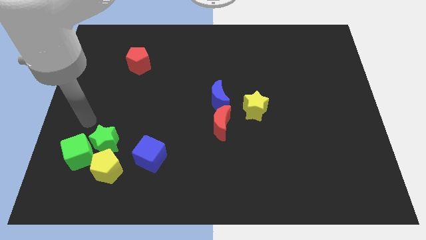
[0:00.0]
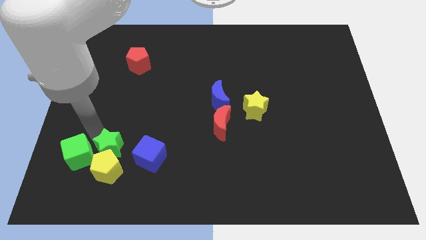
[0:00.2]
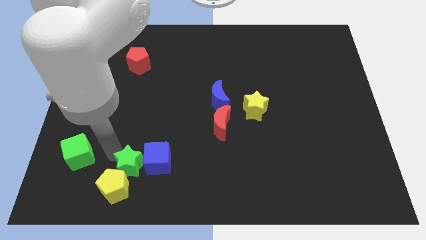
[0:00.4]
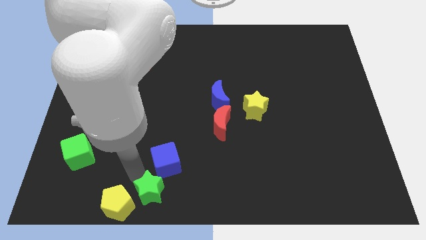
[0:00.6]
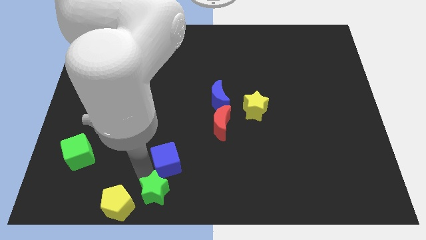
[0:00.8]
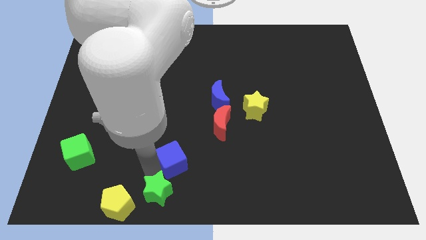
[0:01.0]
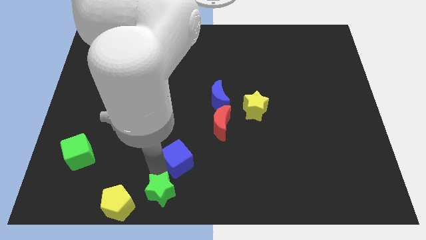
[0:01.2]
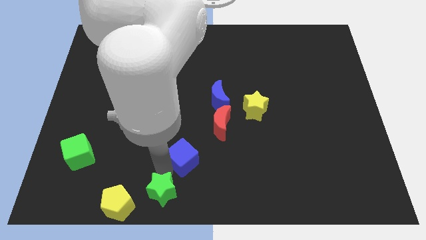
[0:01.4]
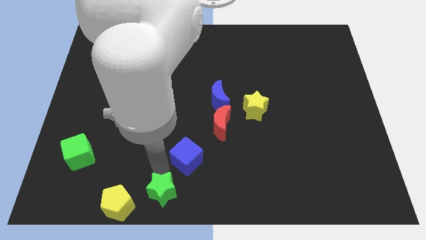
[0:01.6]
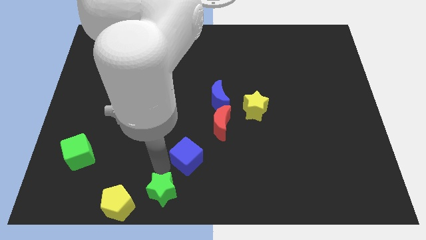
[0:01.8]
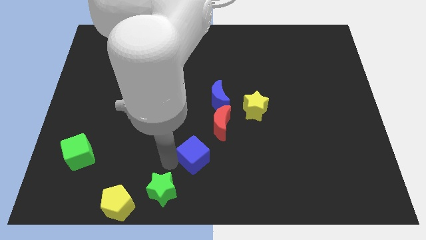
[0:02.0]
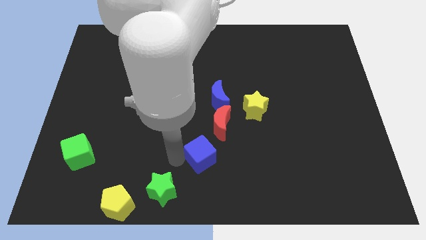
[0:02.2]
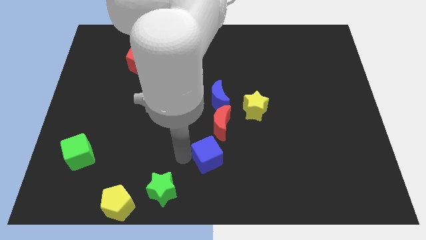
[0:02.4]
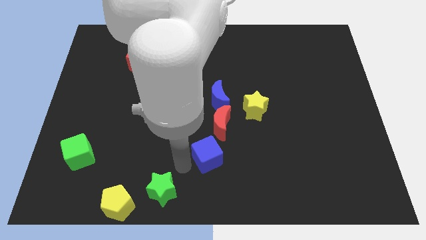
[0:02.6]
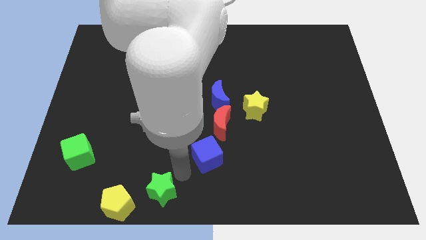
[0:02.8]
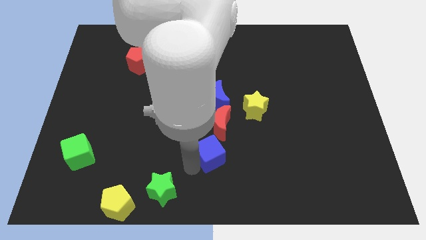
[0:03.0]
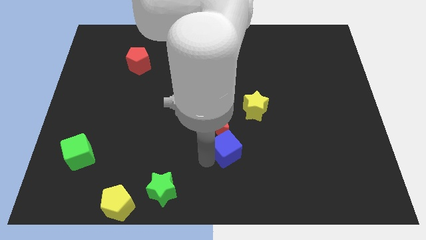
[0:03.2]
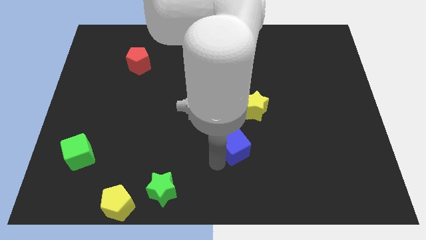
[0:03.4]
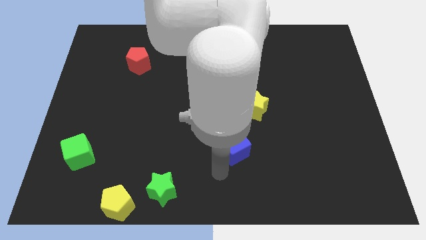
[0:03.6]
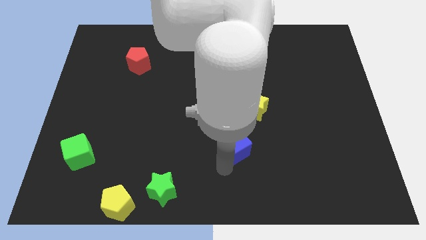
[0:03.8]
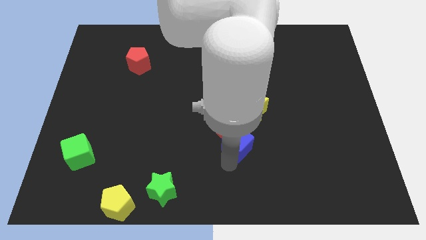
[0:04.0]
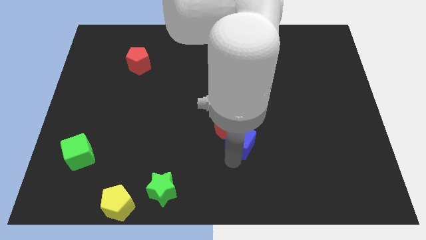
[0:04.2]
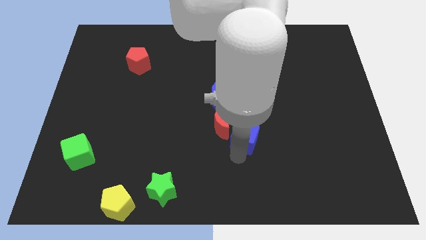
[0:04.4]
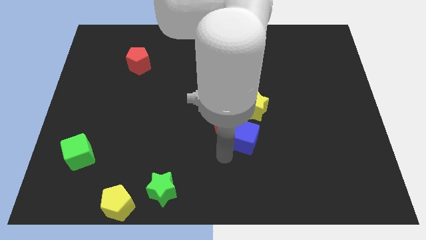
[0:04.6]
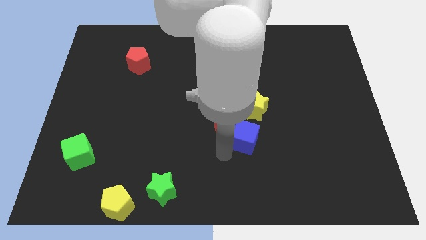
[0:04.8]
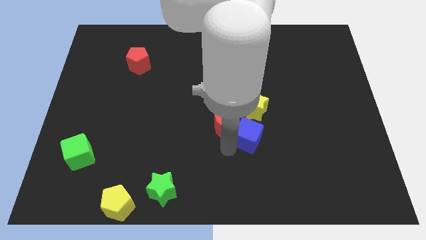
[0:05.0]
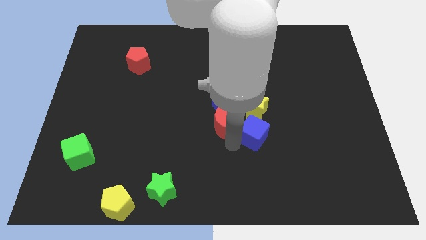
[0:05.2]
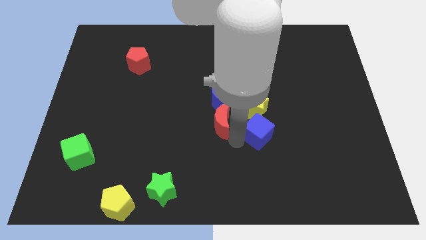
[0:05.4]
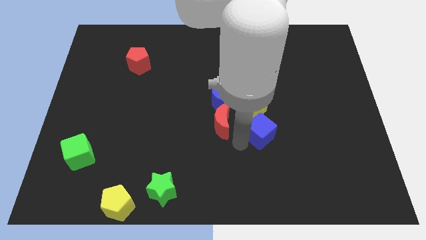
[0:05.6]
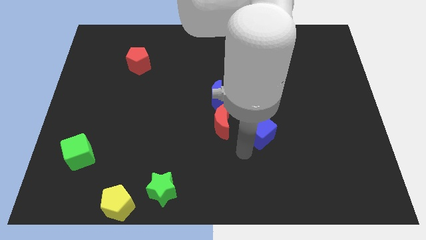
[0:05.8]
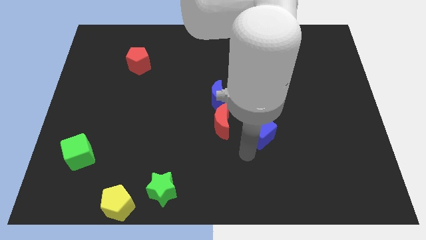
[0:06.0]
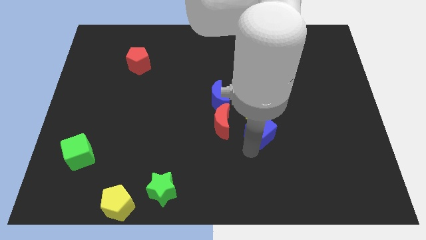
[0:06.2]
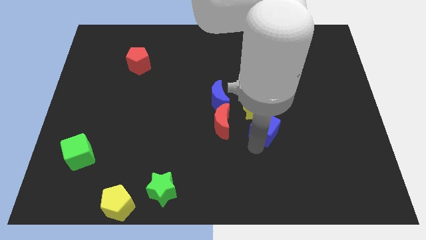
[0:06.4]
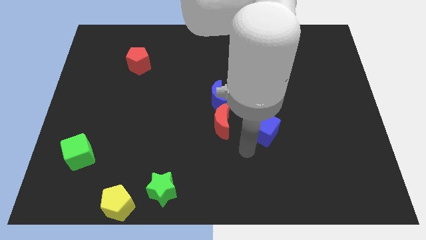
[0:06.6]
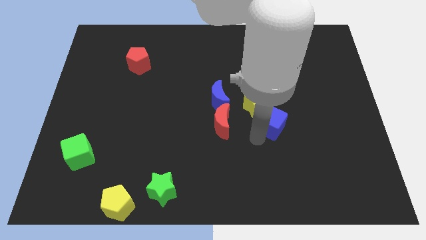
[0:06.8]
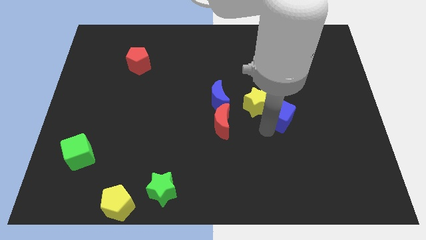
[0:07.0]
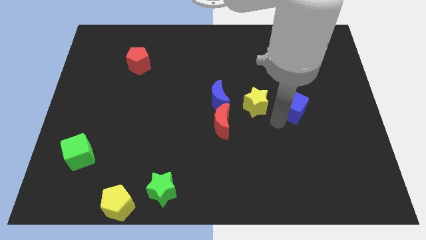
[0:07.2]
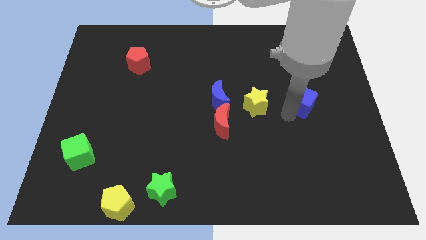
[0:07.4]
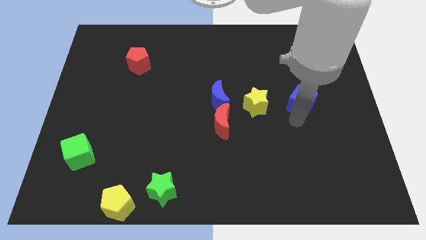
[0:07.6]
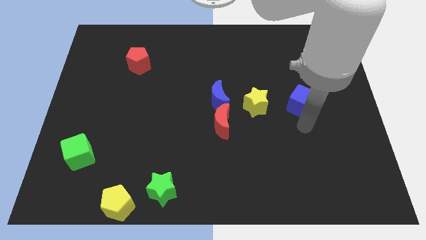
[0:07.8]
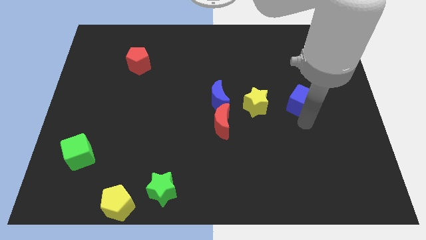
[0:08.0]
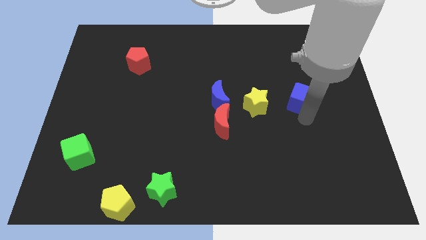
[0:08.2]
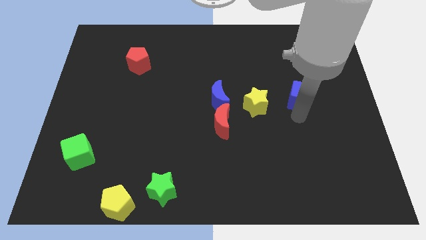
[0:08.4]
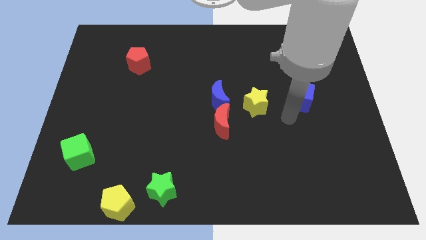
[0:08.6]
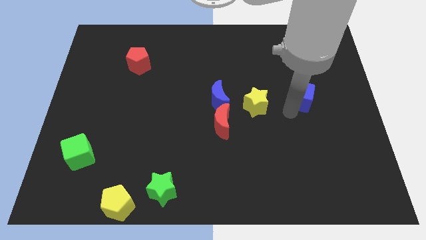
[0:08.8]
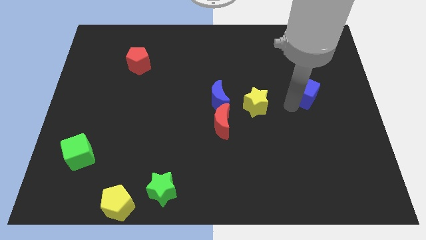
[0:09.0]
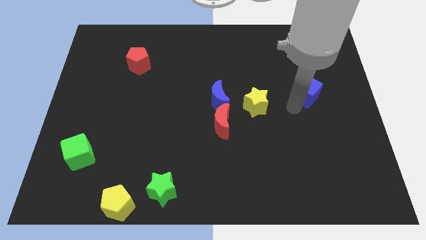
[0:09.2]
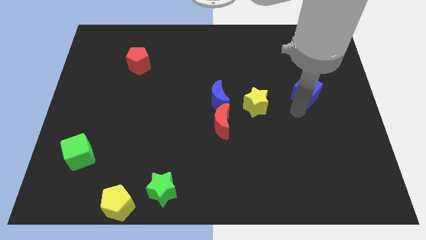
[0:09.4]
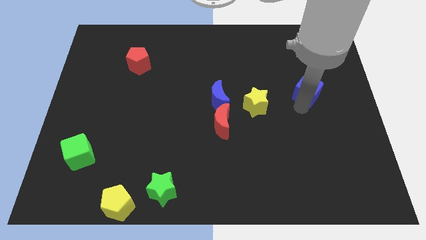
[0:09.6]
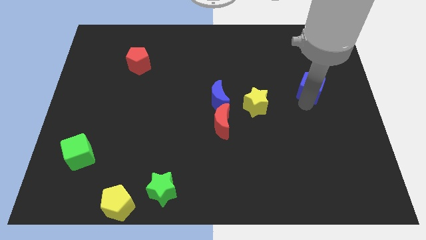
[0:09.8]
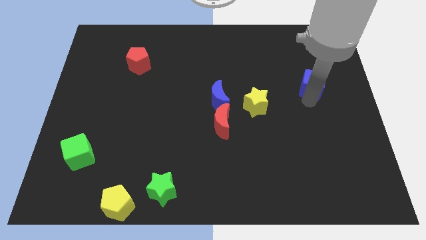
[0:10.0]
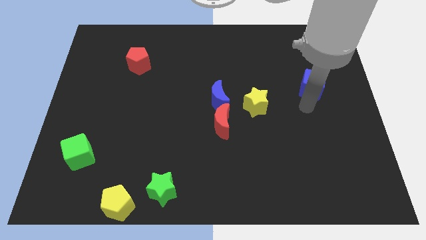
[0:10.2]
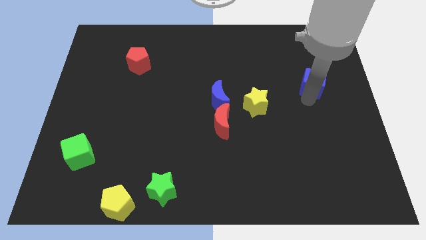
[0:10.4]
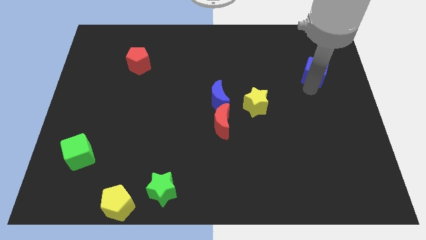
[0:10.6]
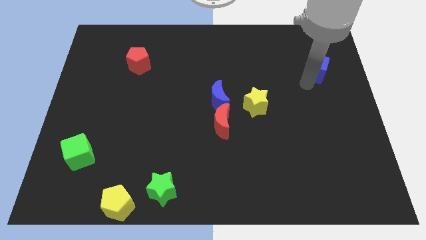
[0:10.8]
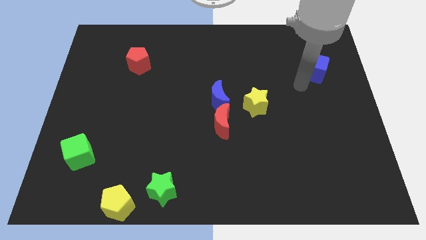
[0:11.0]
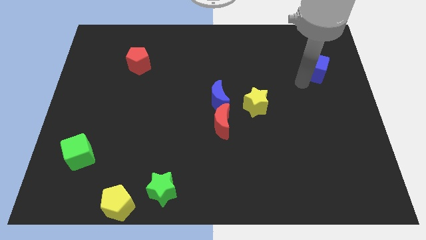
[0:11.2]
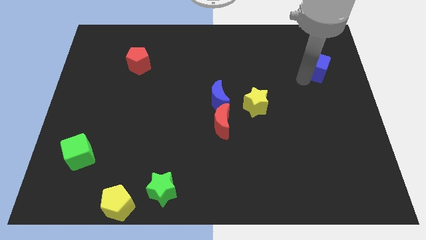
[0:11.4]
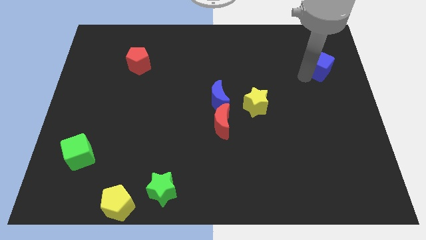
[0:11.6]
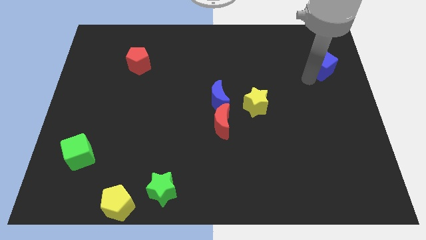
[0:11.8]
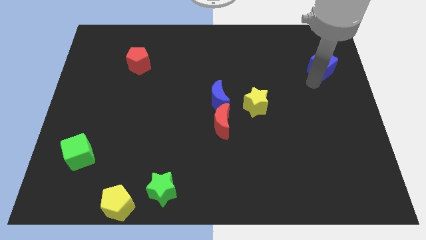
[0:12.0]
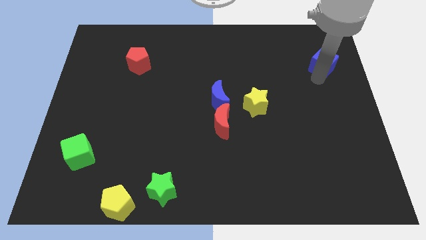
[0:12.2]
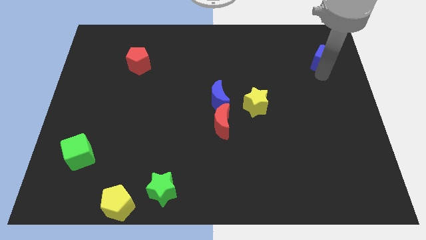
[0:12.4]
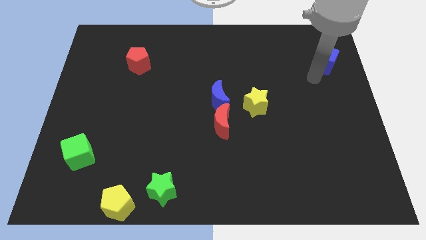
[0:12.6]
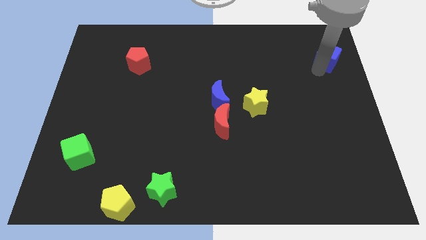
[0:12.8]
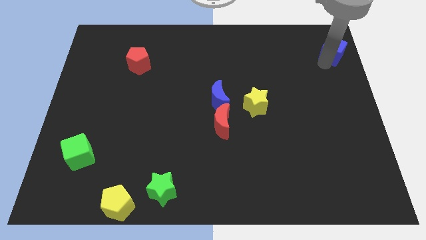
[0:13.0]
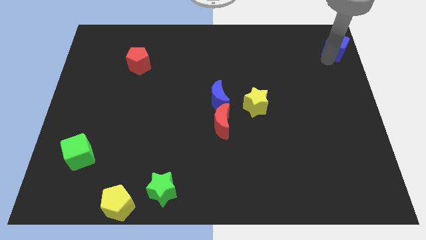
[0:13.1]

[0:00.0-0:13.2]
put the blue cube to the upper right corner
